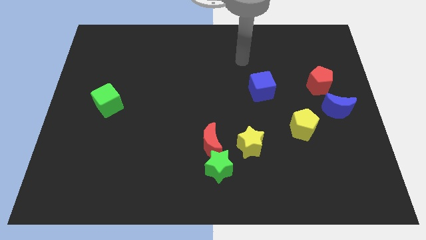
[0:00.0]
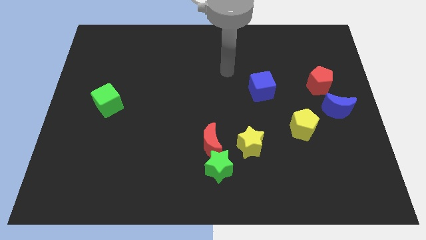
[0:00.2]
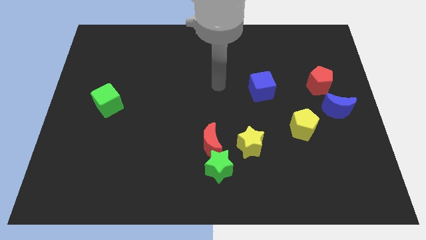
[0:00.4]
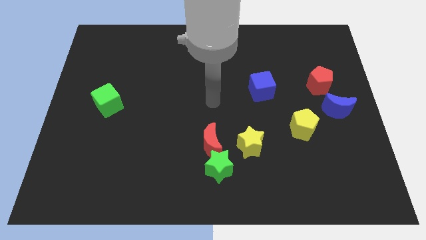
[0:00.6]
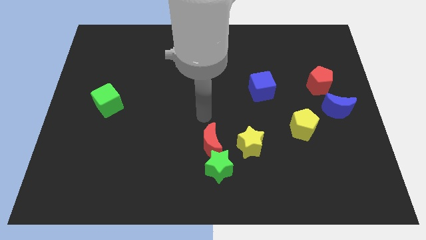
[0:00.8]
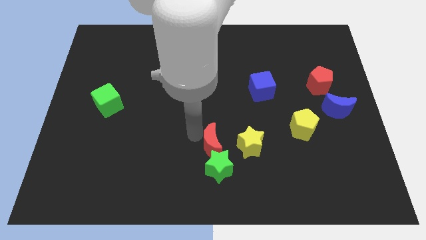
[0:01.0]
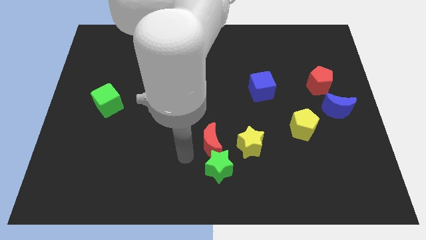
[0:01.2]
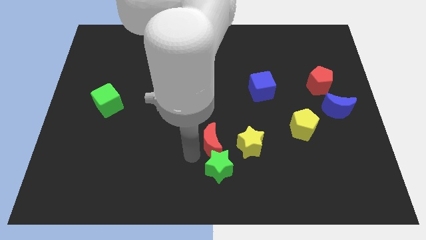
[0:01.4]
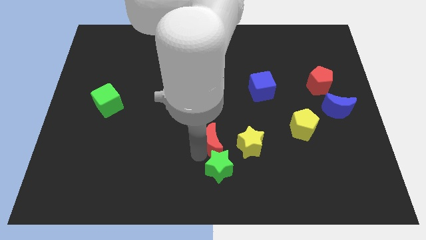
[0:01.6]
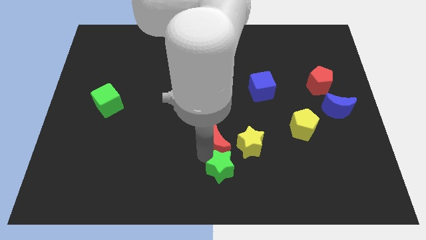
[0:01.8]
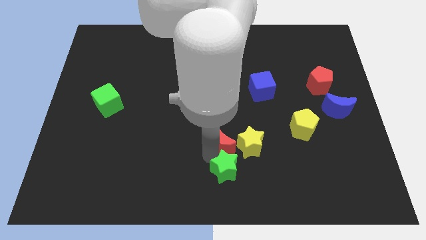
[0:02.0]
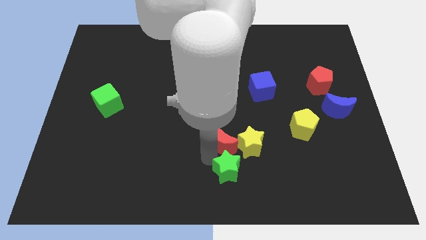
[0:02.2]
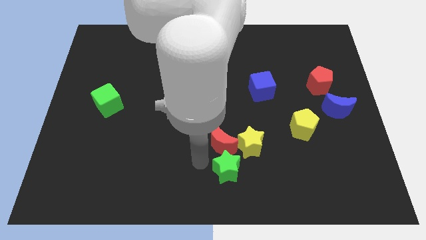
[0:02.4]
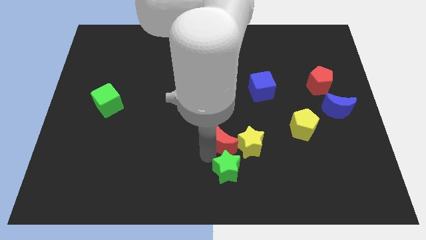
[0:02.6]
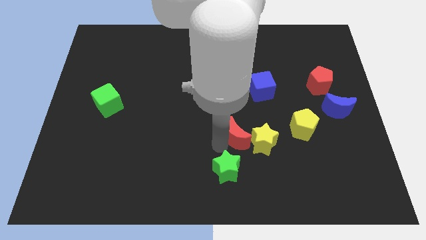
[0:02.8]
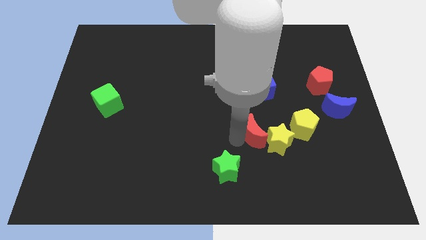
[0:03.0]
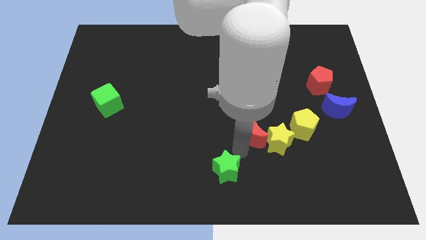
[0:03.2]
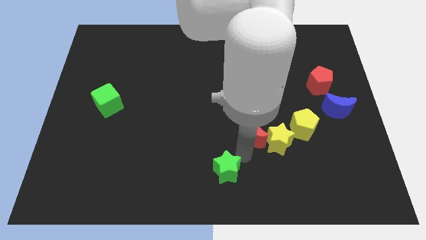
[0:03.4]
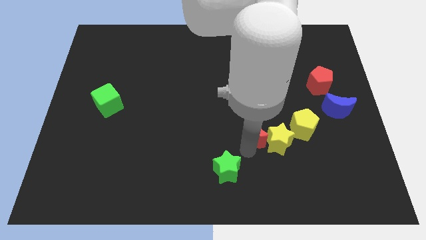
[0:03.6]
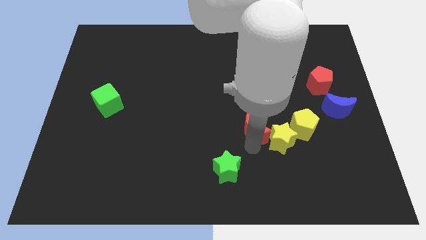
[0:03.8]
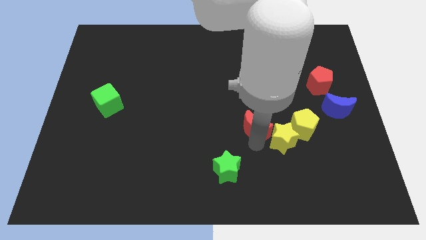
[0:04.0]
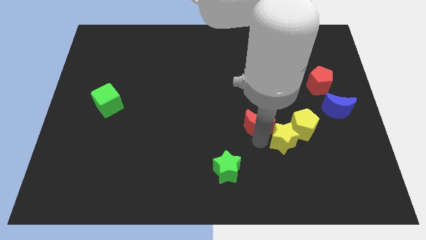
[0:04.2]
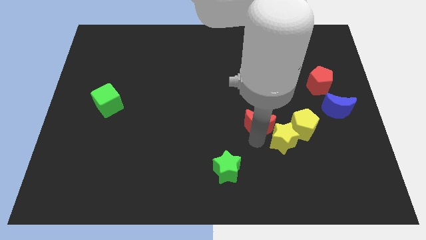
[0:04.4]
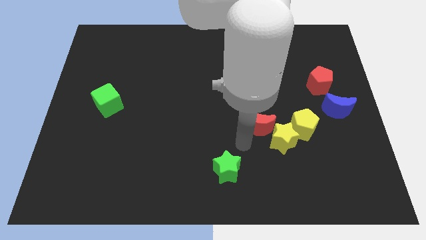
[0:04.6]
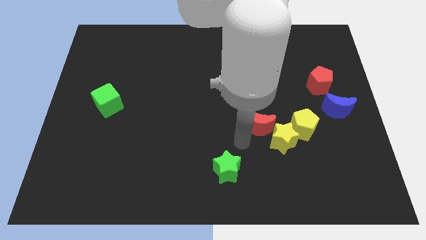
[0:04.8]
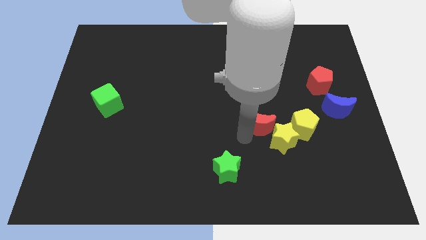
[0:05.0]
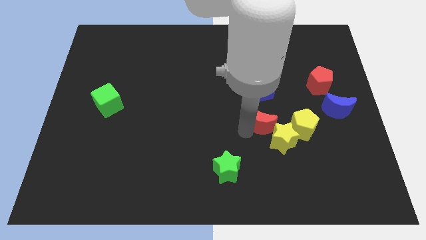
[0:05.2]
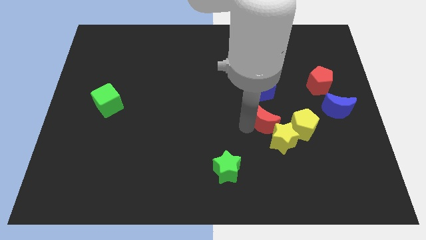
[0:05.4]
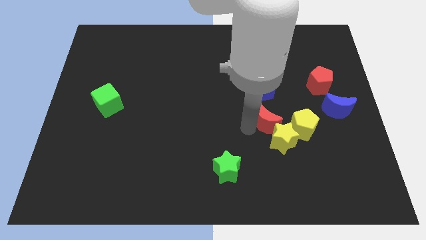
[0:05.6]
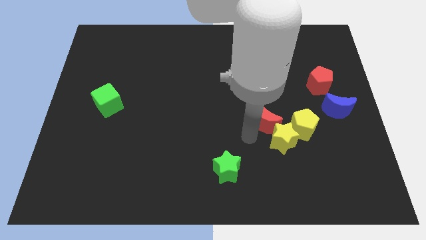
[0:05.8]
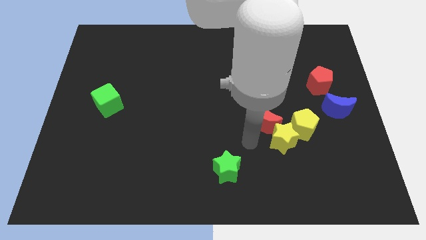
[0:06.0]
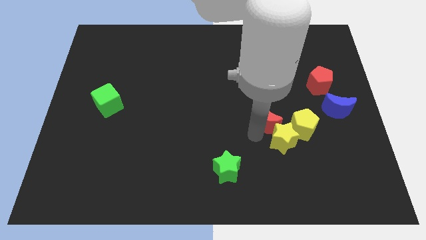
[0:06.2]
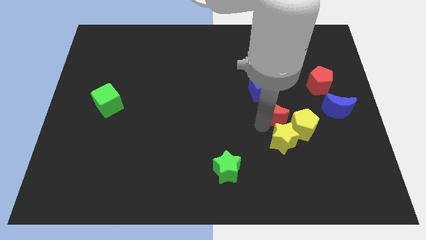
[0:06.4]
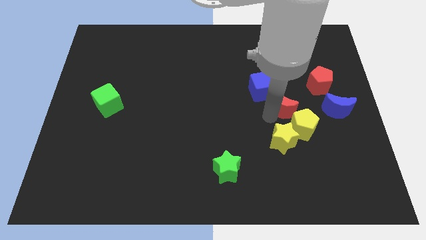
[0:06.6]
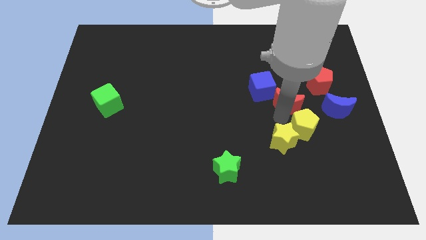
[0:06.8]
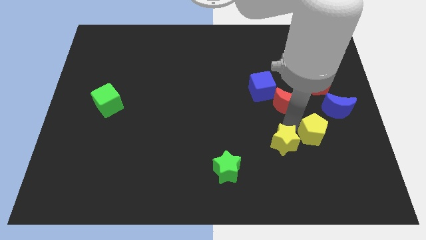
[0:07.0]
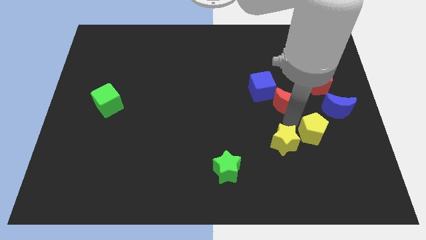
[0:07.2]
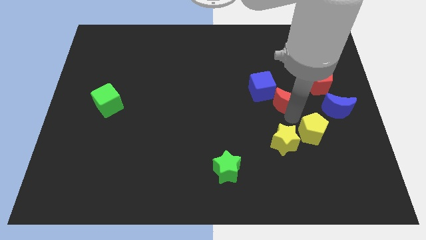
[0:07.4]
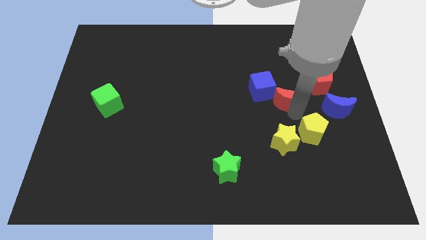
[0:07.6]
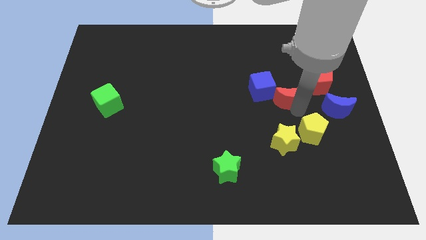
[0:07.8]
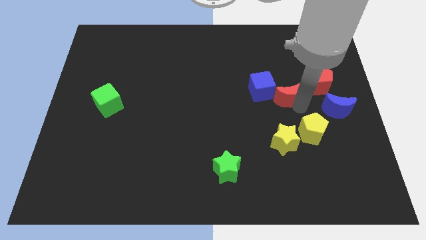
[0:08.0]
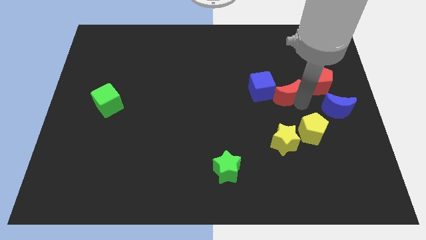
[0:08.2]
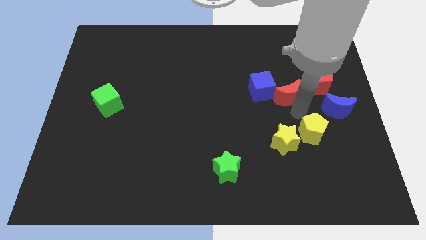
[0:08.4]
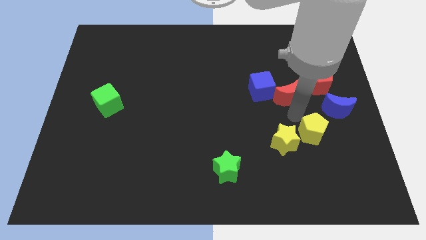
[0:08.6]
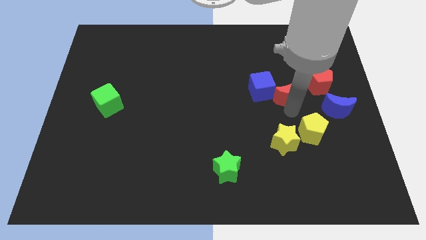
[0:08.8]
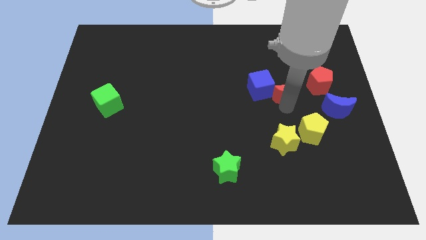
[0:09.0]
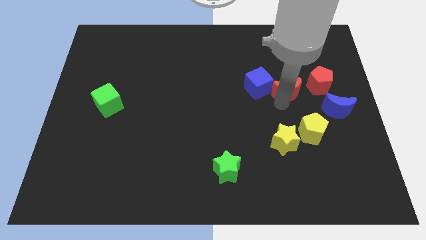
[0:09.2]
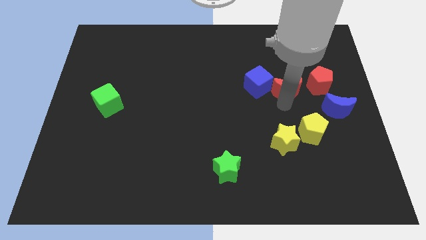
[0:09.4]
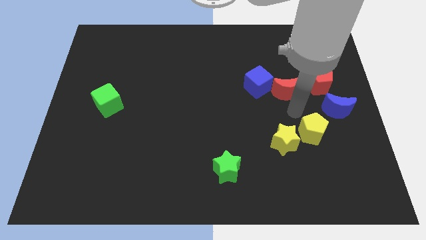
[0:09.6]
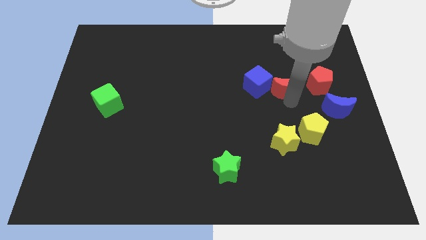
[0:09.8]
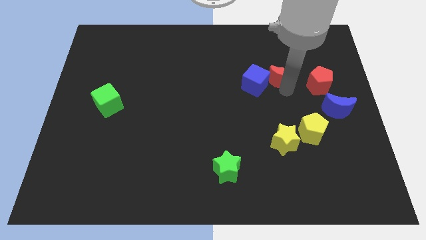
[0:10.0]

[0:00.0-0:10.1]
move the red moon to the top right of the blue cube

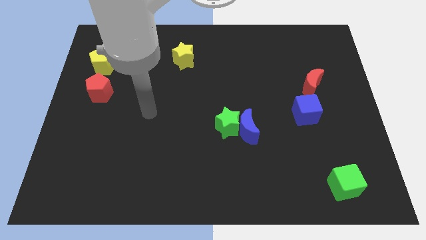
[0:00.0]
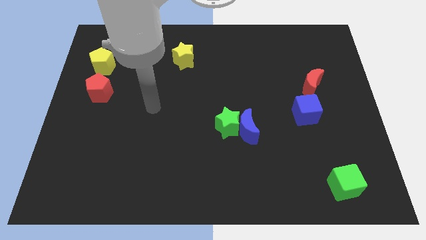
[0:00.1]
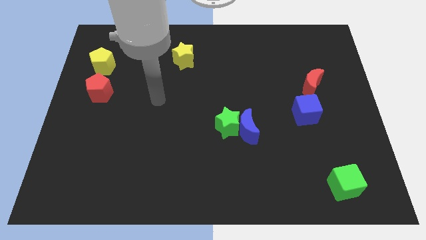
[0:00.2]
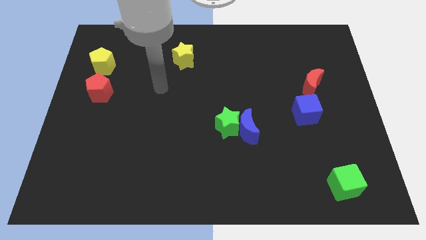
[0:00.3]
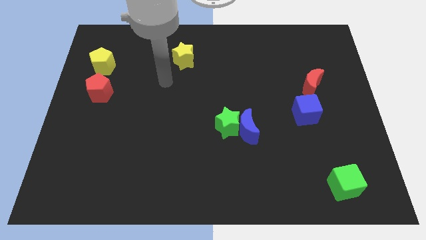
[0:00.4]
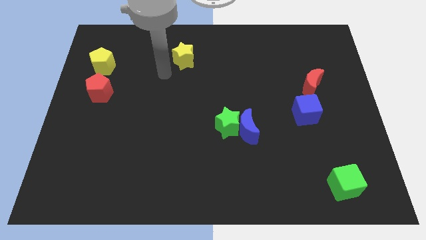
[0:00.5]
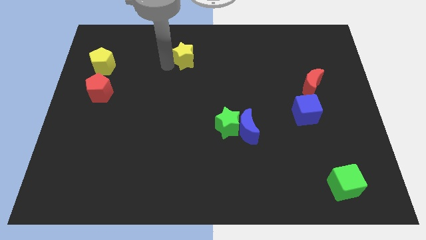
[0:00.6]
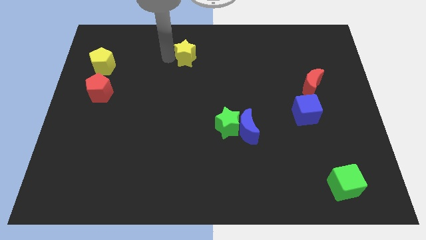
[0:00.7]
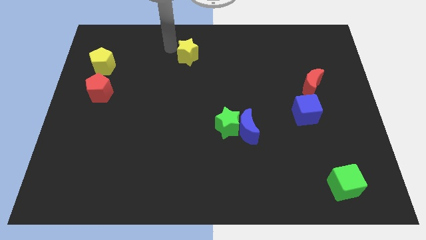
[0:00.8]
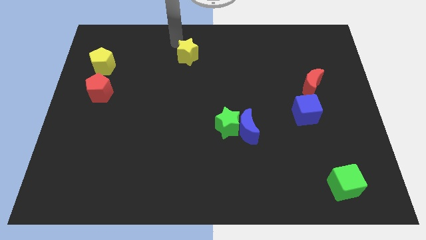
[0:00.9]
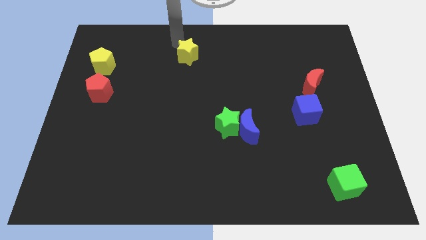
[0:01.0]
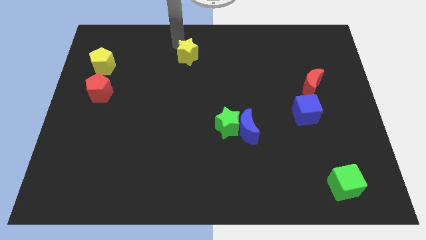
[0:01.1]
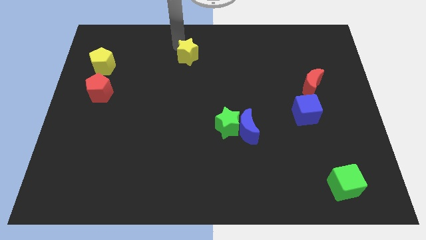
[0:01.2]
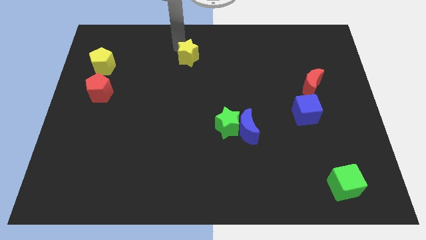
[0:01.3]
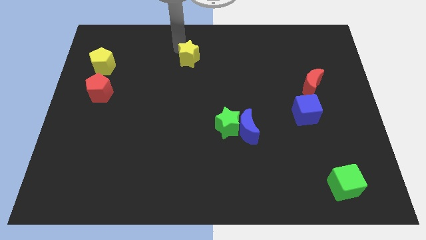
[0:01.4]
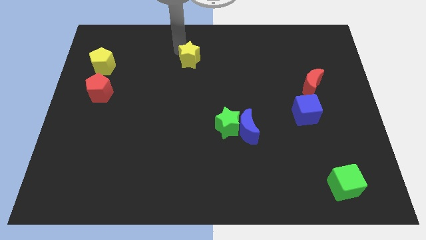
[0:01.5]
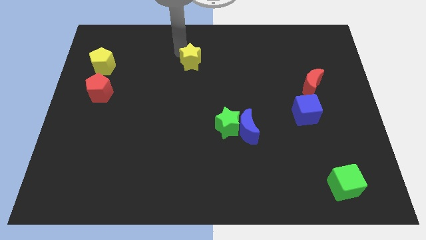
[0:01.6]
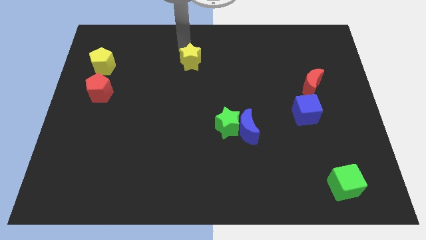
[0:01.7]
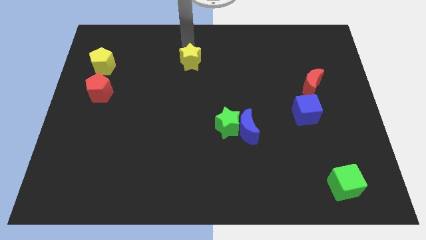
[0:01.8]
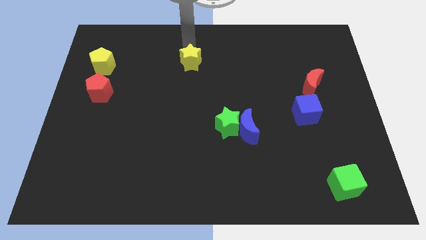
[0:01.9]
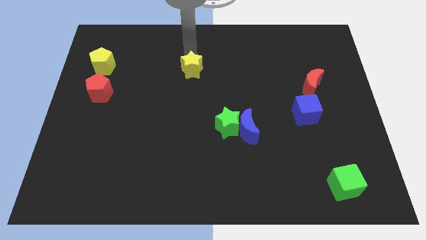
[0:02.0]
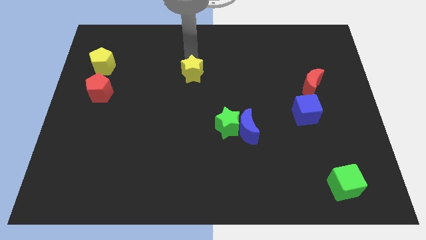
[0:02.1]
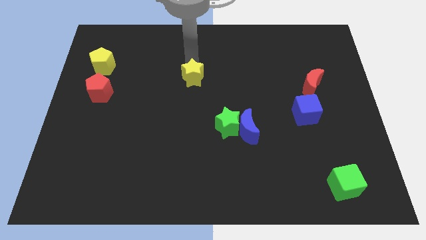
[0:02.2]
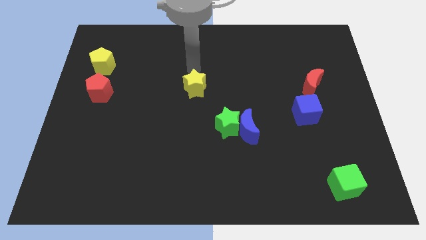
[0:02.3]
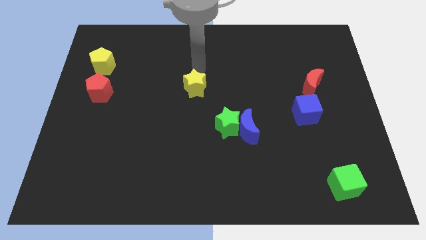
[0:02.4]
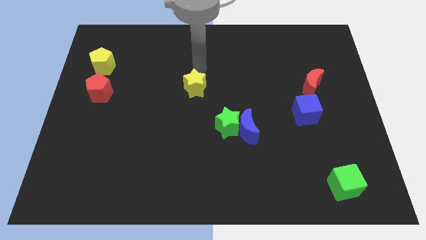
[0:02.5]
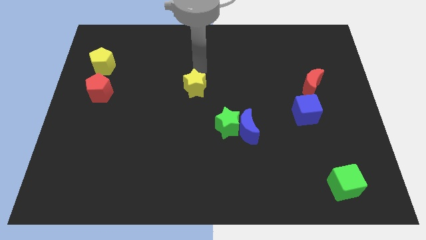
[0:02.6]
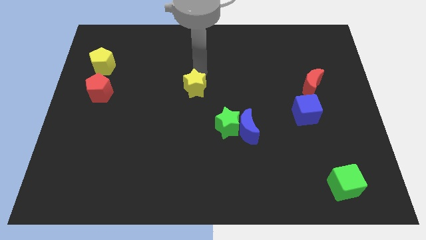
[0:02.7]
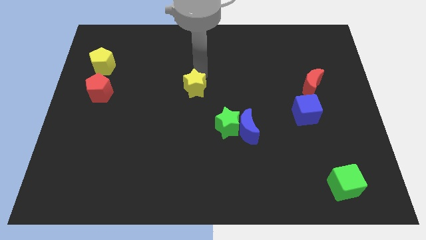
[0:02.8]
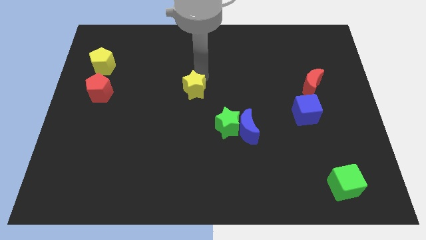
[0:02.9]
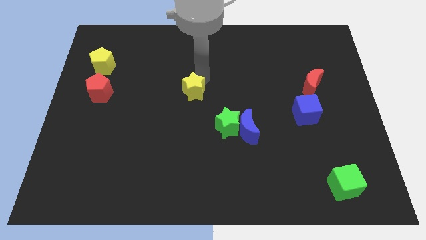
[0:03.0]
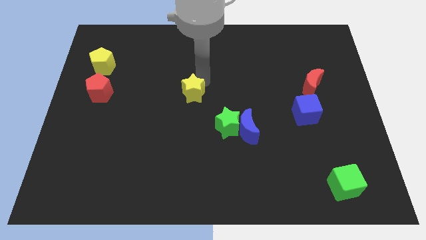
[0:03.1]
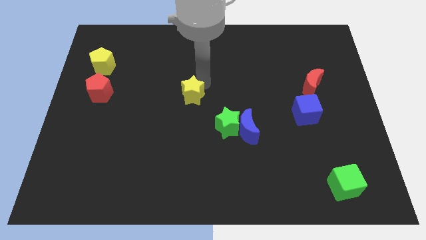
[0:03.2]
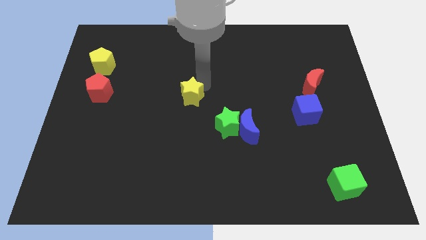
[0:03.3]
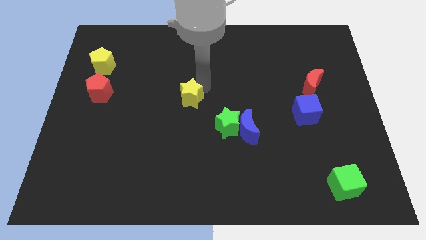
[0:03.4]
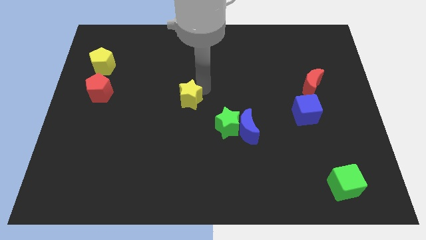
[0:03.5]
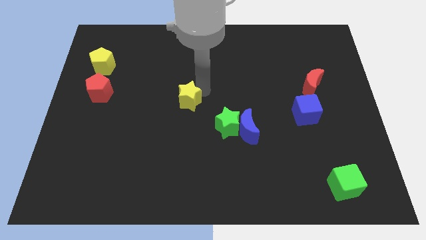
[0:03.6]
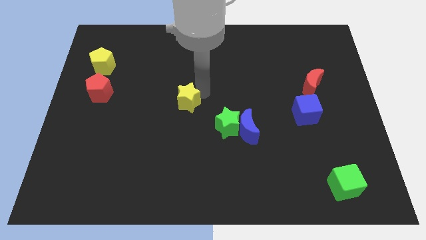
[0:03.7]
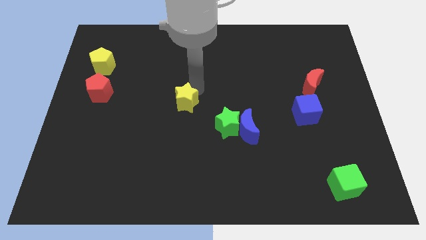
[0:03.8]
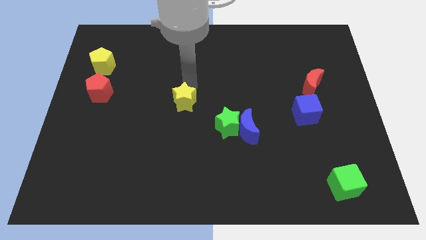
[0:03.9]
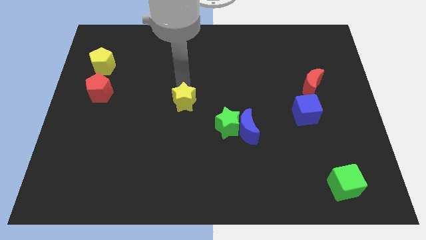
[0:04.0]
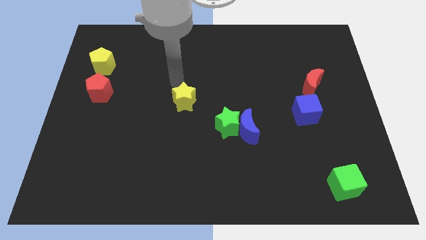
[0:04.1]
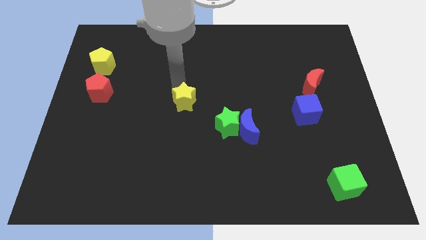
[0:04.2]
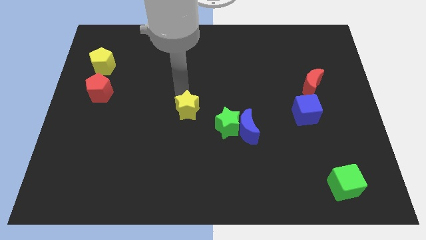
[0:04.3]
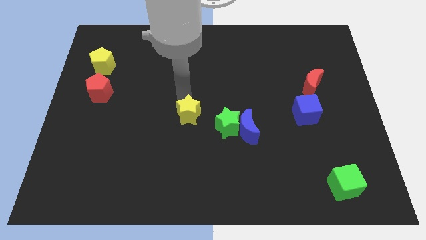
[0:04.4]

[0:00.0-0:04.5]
put the yellow star to the left side of the blue moon
